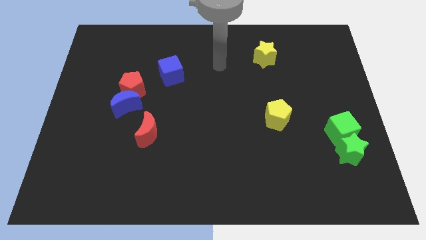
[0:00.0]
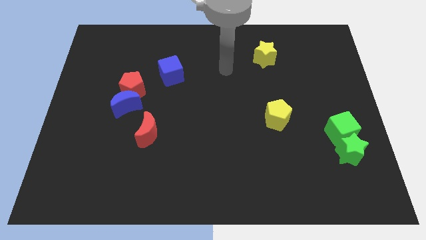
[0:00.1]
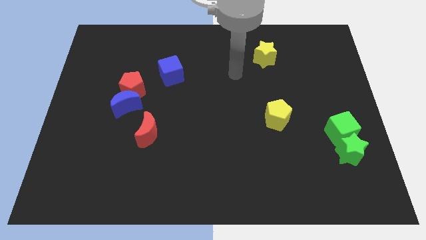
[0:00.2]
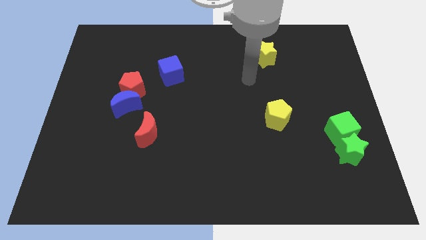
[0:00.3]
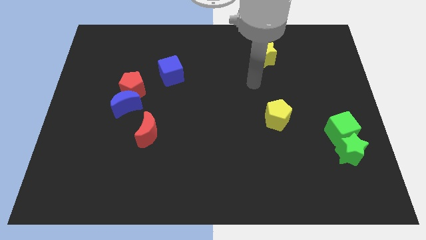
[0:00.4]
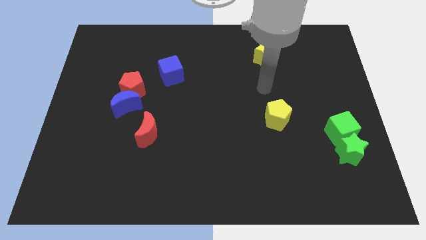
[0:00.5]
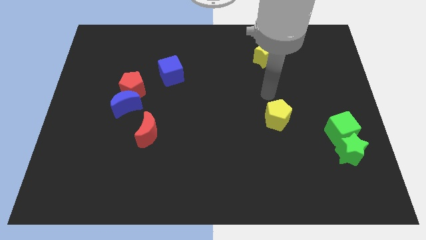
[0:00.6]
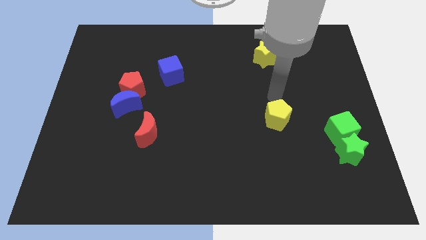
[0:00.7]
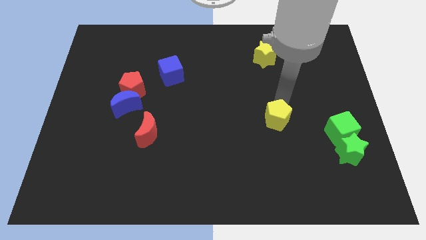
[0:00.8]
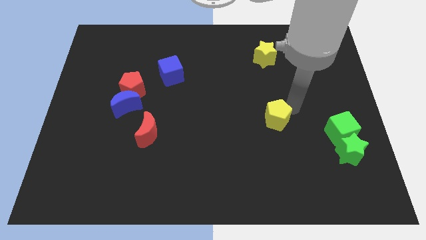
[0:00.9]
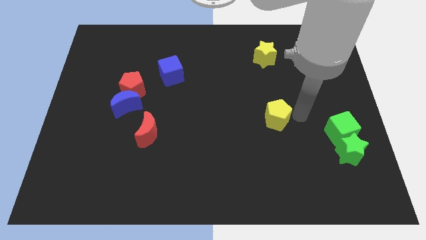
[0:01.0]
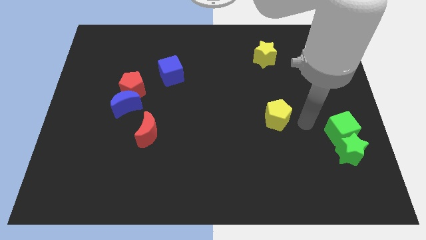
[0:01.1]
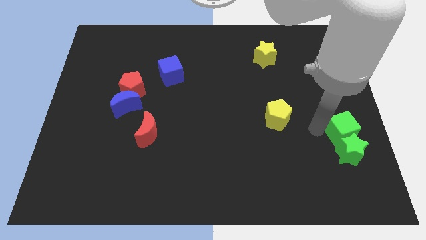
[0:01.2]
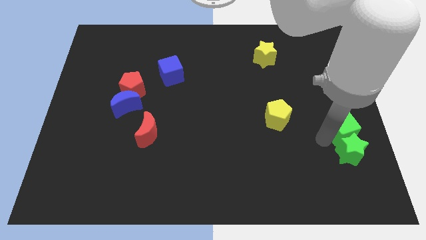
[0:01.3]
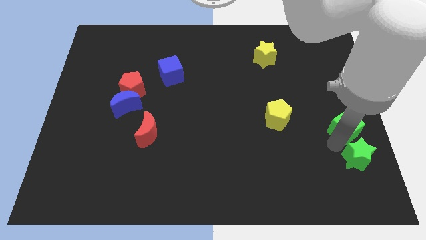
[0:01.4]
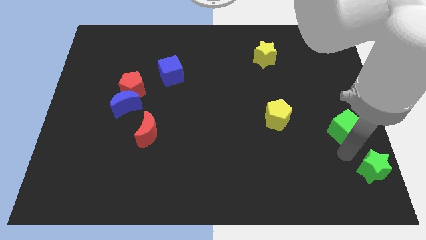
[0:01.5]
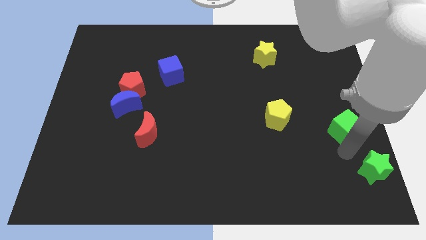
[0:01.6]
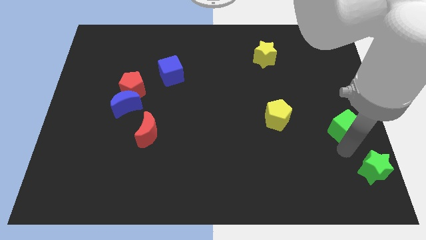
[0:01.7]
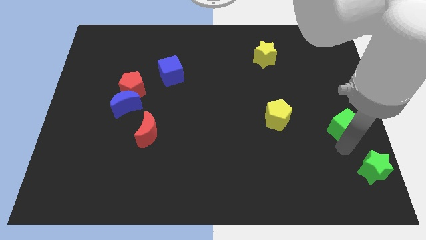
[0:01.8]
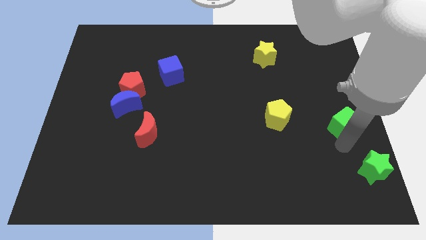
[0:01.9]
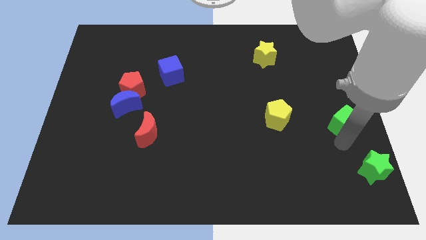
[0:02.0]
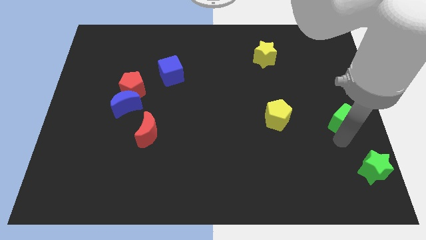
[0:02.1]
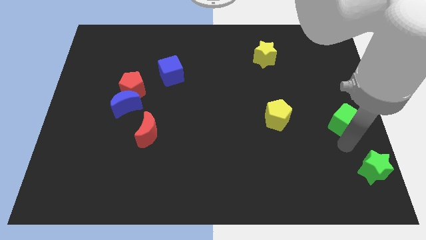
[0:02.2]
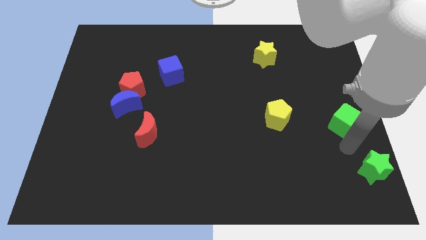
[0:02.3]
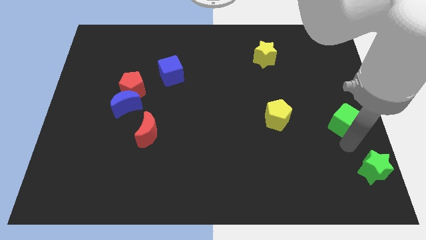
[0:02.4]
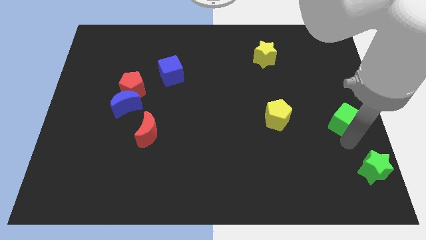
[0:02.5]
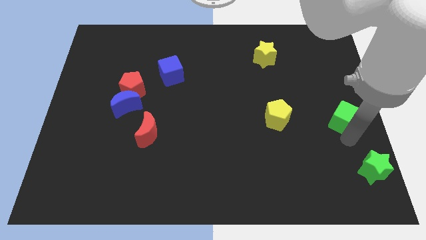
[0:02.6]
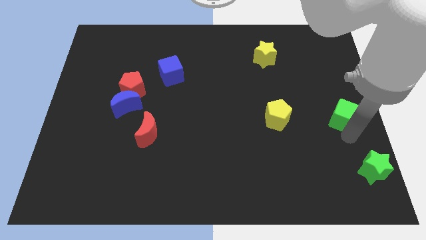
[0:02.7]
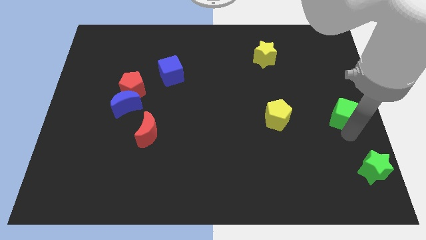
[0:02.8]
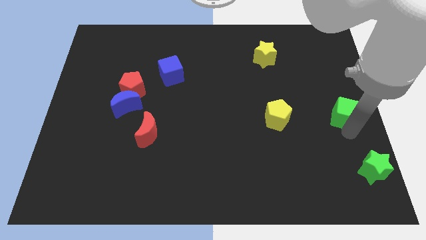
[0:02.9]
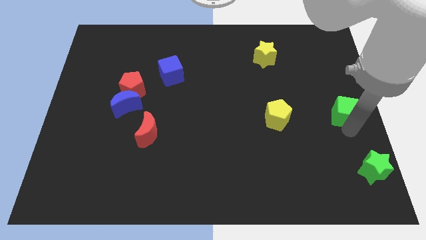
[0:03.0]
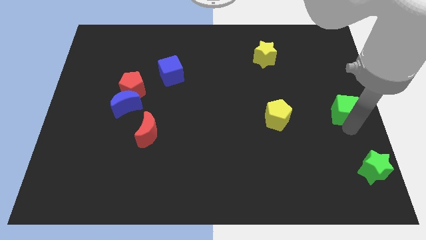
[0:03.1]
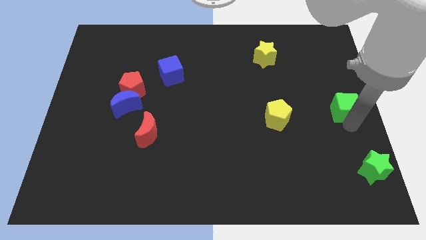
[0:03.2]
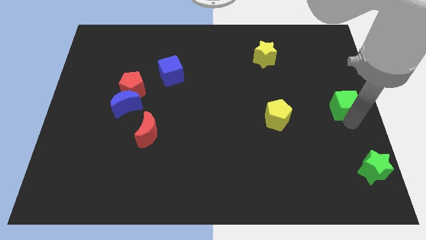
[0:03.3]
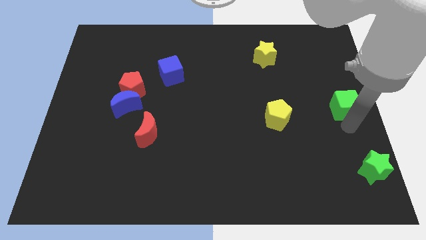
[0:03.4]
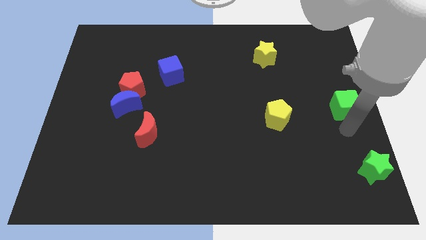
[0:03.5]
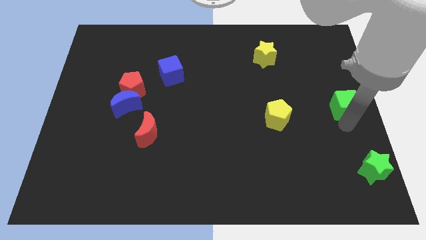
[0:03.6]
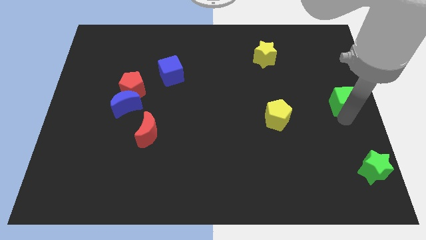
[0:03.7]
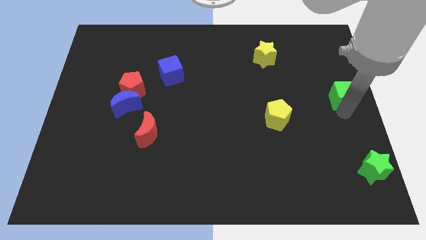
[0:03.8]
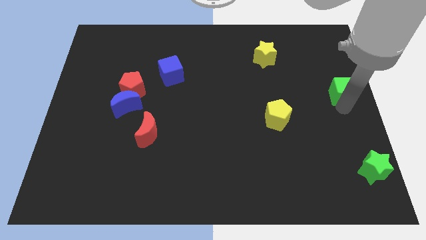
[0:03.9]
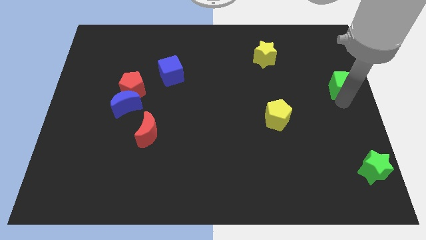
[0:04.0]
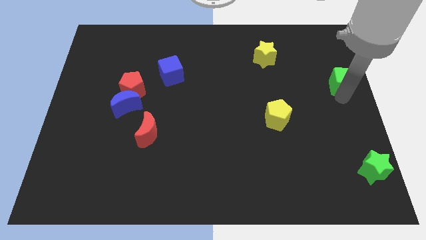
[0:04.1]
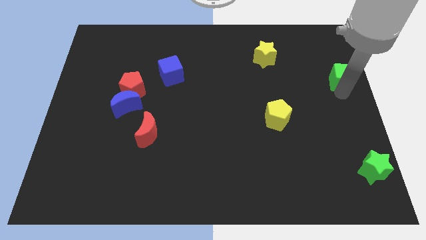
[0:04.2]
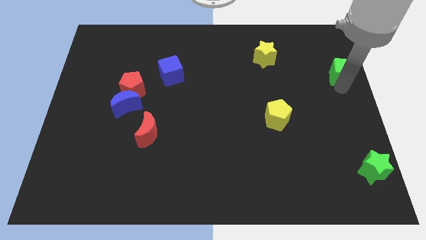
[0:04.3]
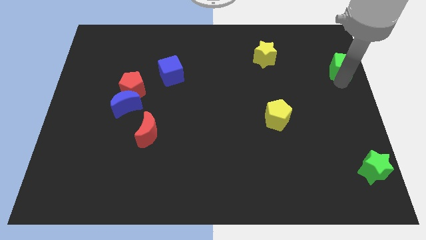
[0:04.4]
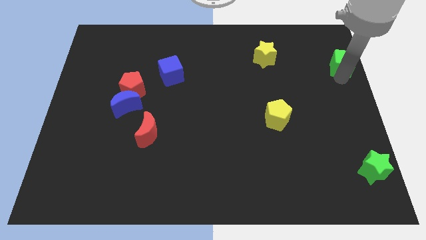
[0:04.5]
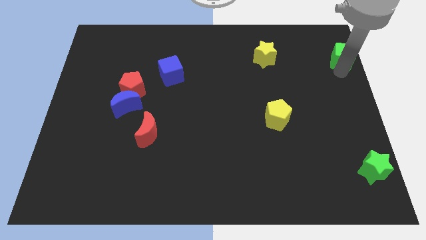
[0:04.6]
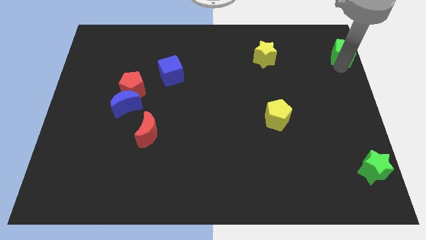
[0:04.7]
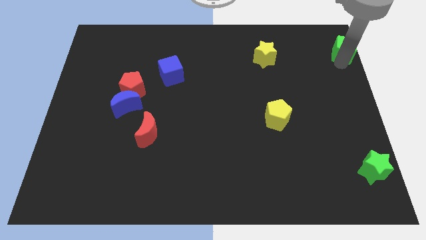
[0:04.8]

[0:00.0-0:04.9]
put the green cube to the top right
